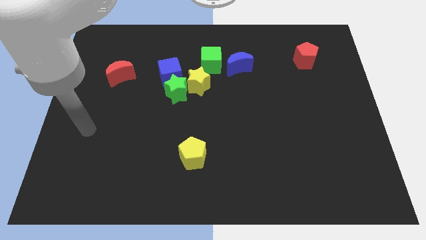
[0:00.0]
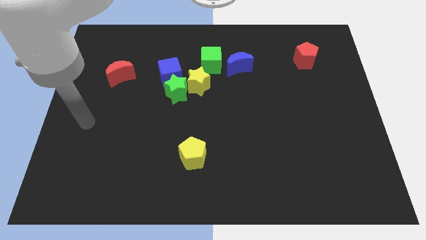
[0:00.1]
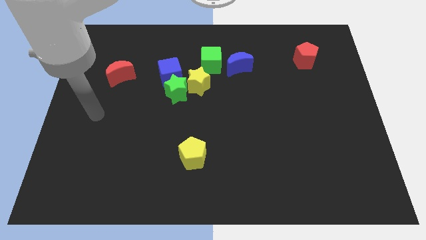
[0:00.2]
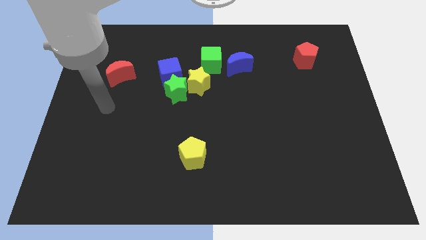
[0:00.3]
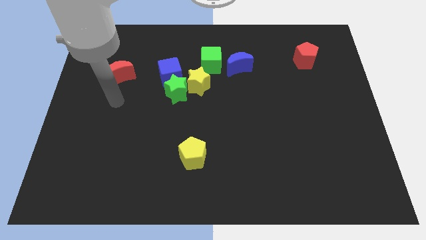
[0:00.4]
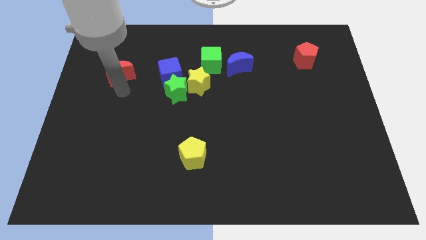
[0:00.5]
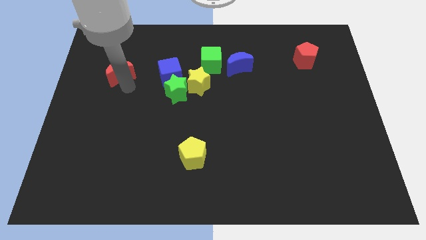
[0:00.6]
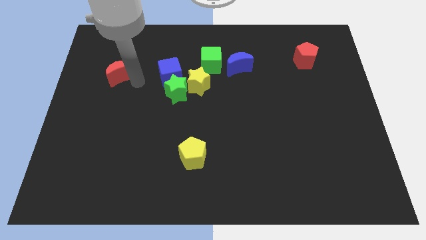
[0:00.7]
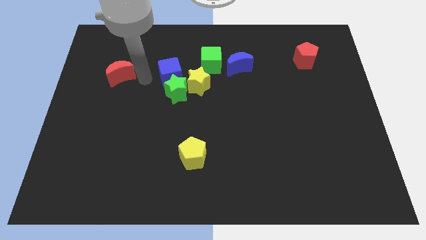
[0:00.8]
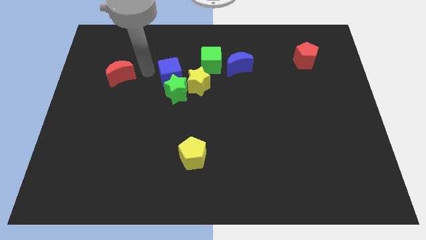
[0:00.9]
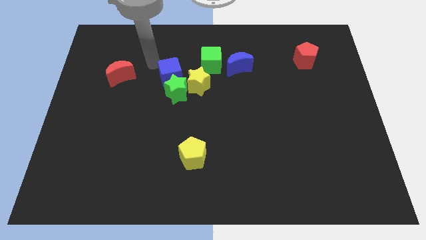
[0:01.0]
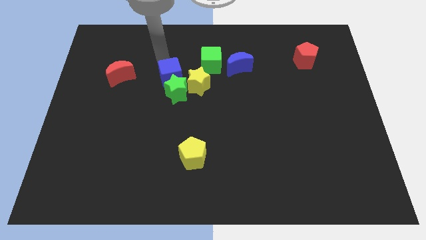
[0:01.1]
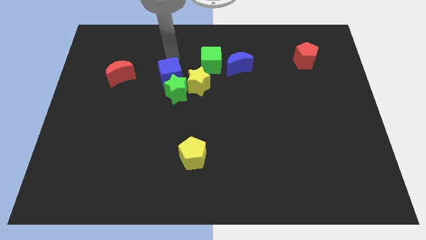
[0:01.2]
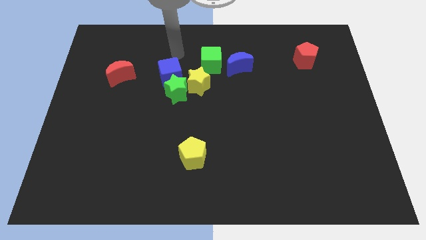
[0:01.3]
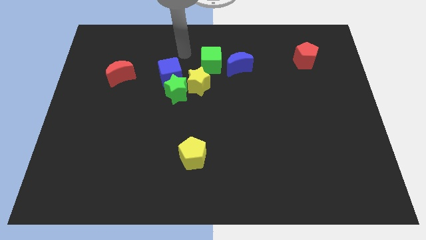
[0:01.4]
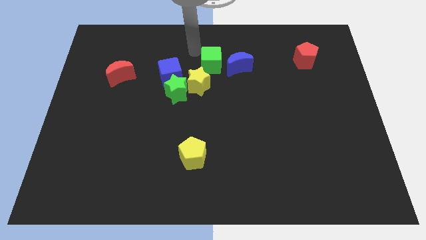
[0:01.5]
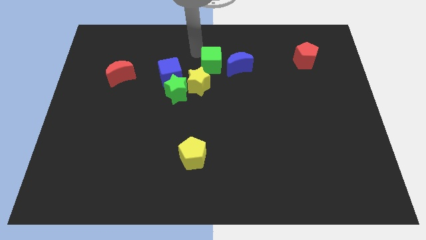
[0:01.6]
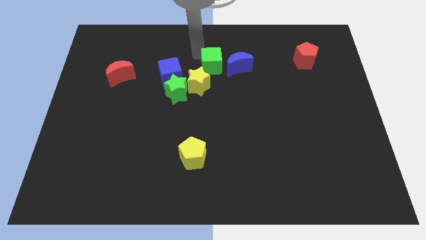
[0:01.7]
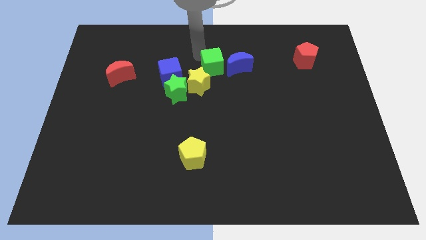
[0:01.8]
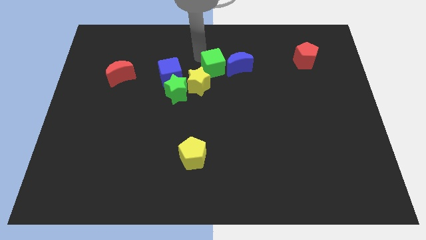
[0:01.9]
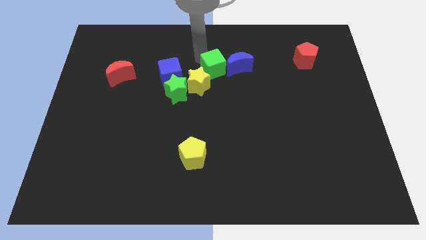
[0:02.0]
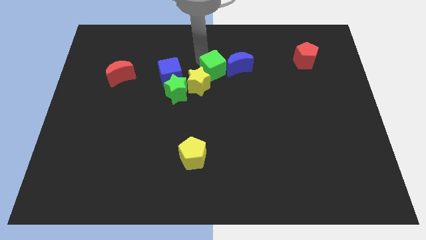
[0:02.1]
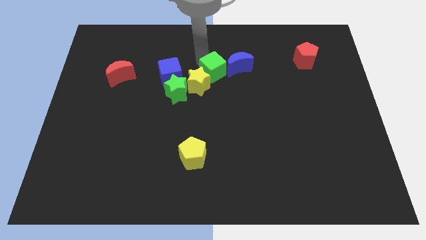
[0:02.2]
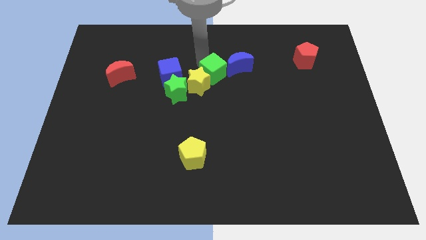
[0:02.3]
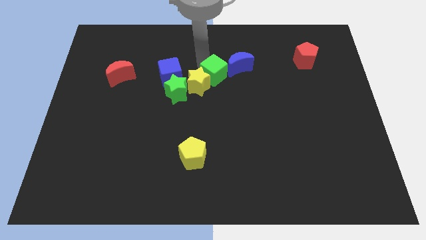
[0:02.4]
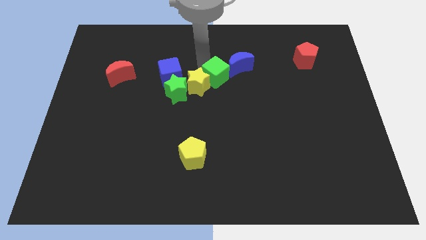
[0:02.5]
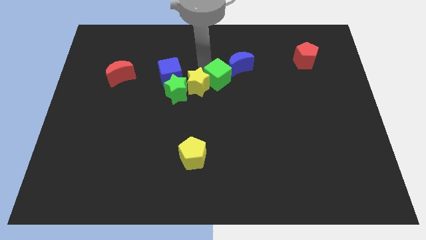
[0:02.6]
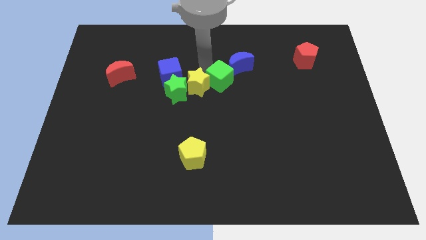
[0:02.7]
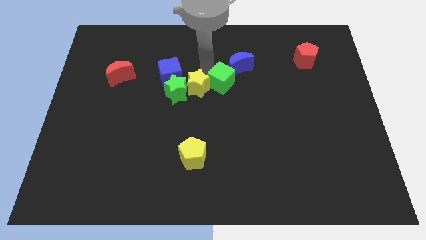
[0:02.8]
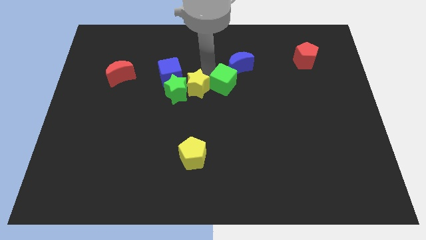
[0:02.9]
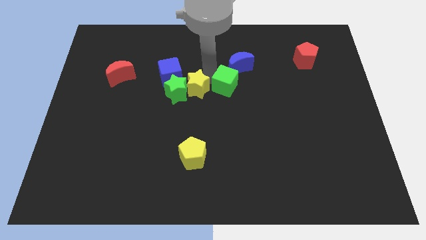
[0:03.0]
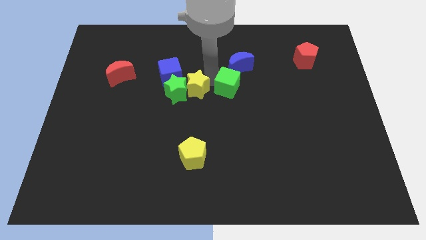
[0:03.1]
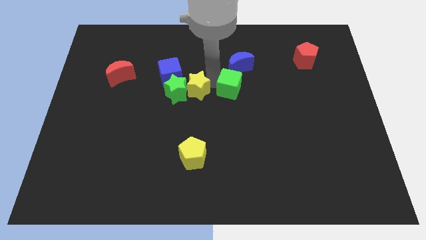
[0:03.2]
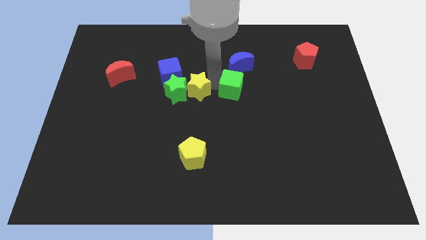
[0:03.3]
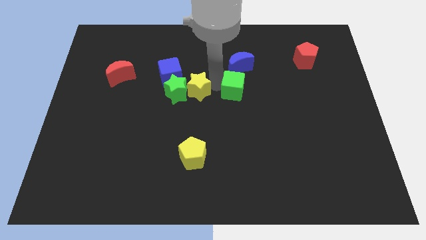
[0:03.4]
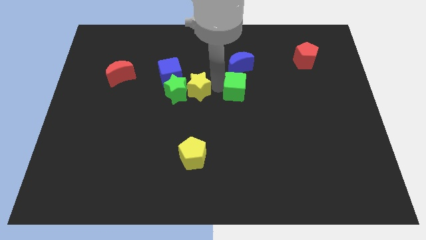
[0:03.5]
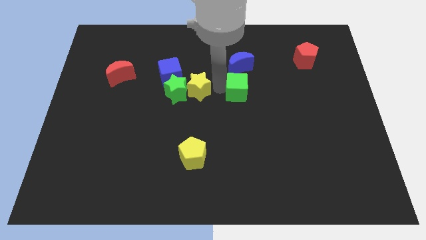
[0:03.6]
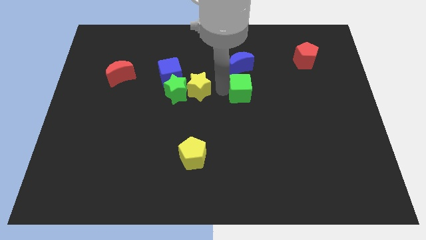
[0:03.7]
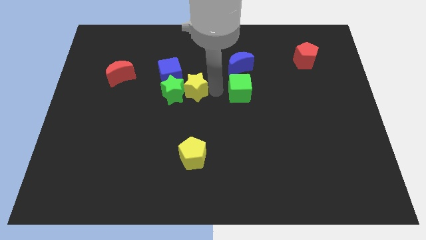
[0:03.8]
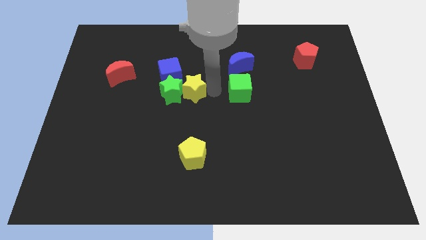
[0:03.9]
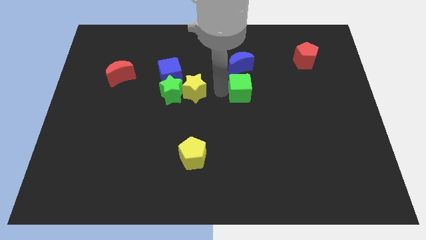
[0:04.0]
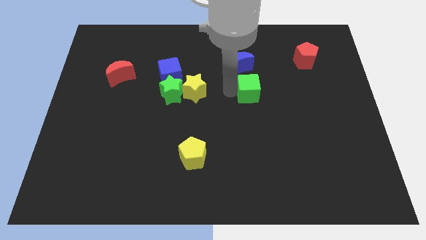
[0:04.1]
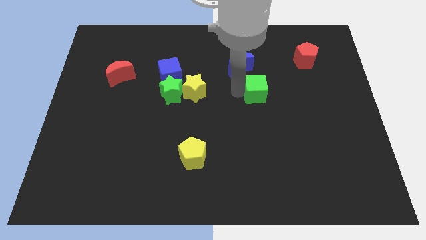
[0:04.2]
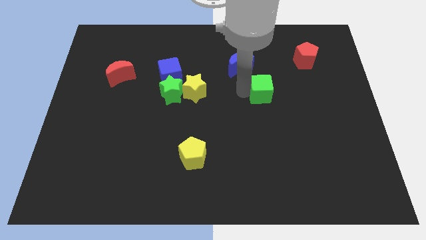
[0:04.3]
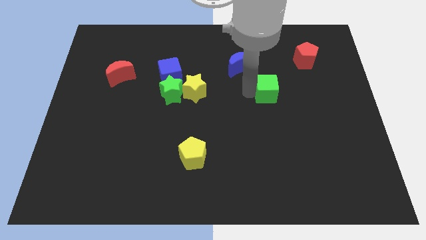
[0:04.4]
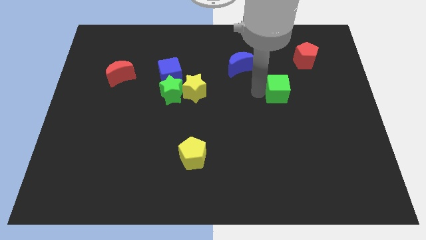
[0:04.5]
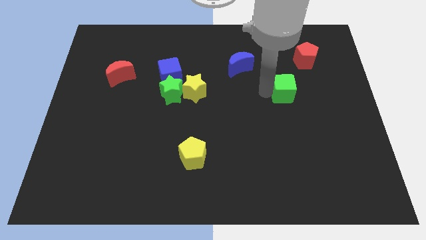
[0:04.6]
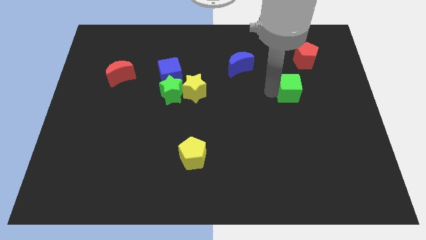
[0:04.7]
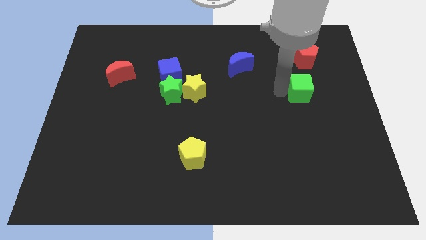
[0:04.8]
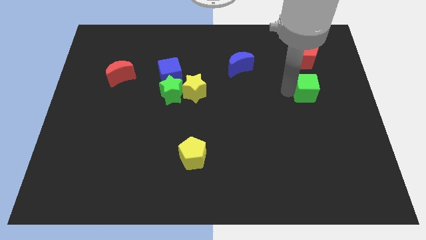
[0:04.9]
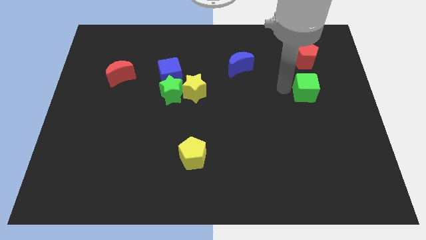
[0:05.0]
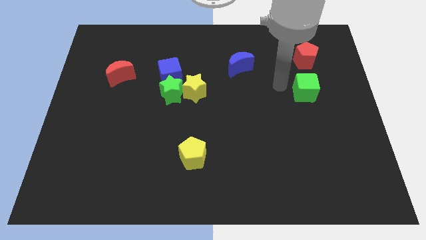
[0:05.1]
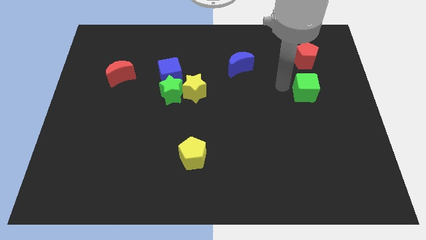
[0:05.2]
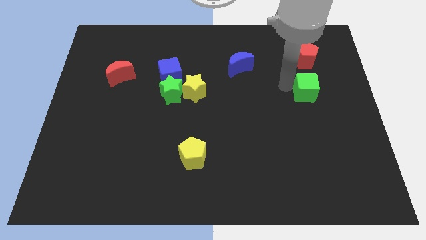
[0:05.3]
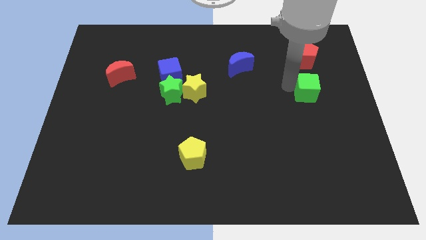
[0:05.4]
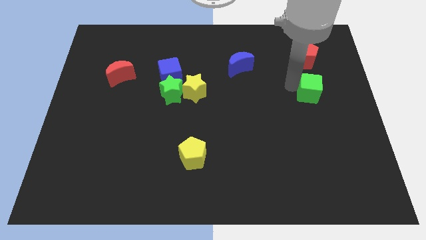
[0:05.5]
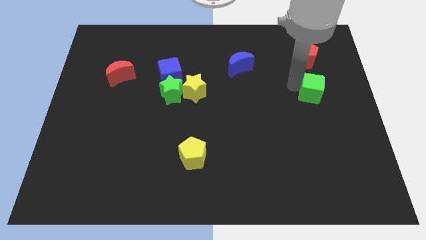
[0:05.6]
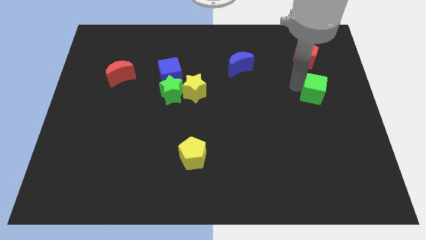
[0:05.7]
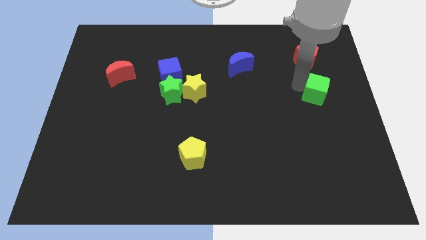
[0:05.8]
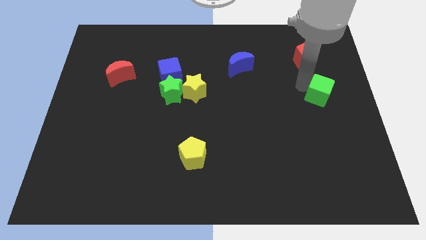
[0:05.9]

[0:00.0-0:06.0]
move the green cube to the right side

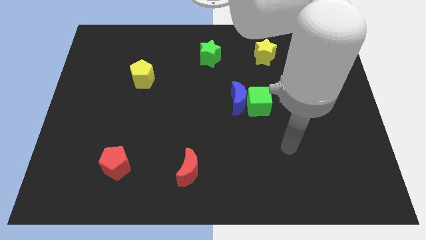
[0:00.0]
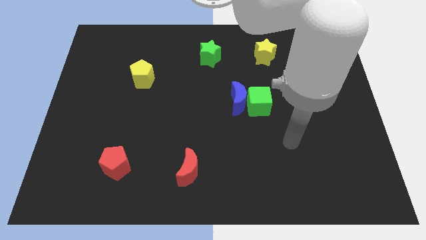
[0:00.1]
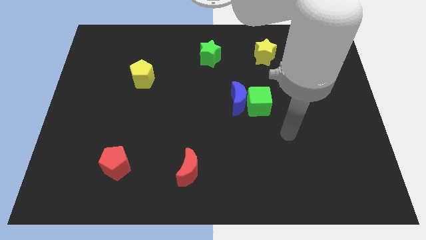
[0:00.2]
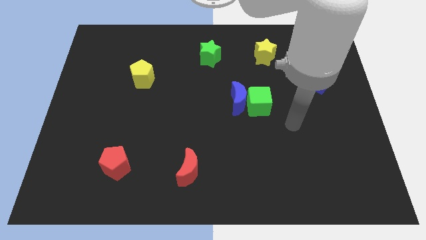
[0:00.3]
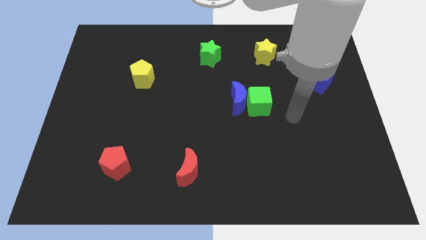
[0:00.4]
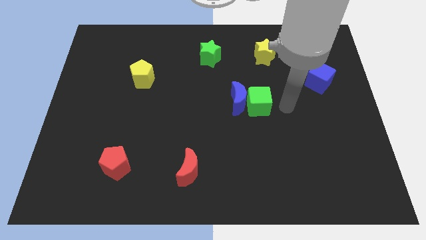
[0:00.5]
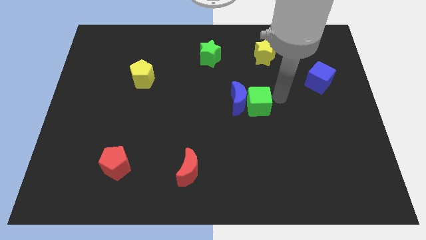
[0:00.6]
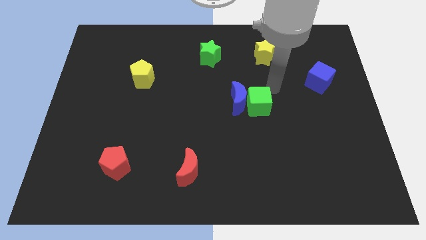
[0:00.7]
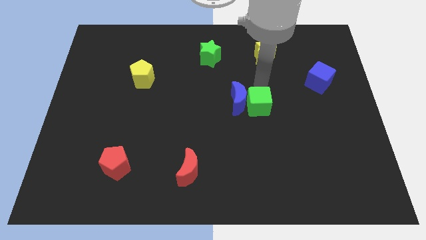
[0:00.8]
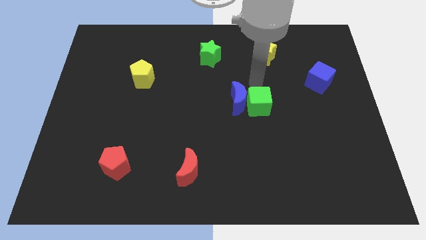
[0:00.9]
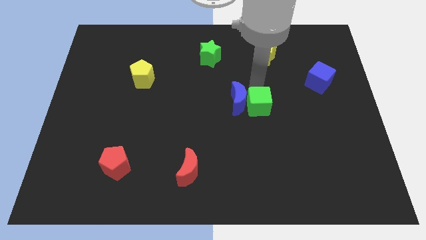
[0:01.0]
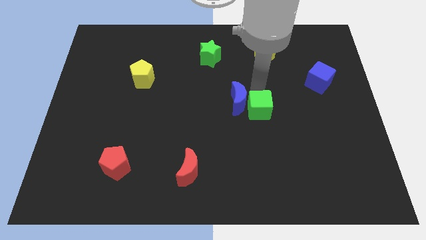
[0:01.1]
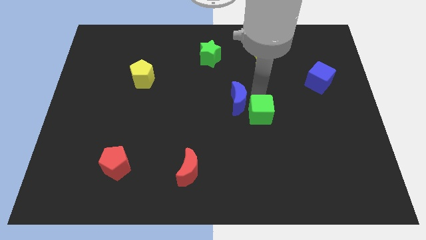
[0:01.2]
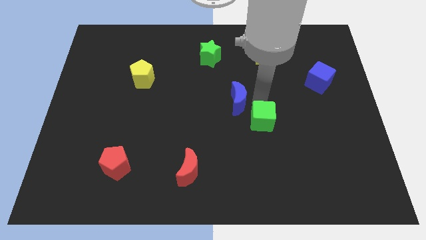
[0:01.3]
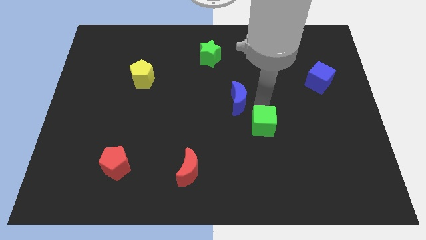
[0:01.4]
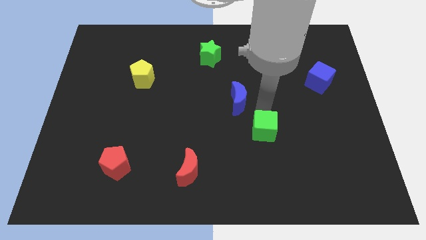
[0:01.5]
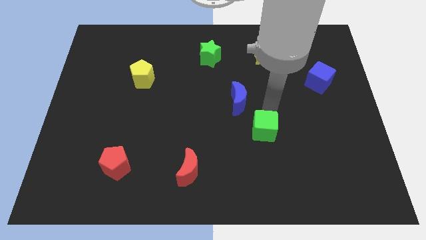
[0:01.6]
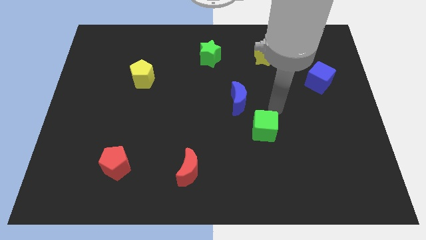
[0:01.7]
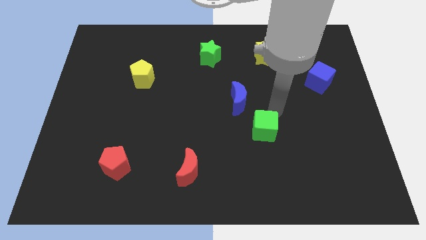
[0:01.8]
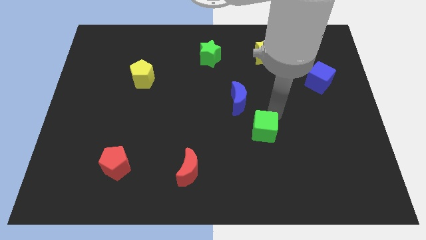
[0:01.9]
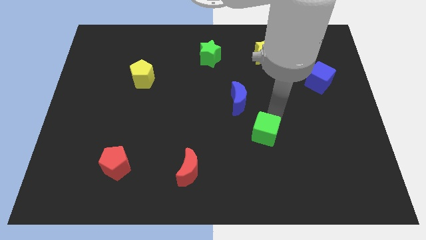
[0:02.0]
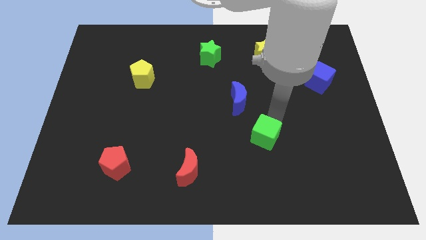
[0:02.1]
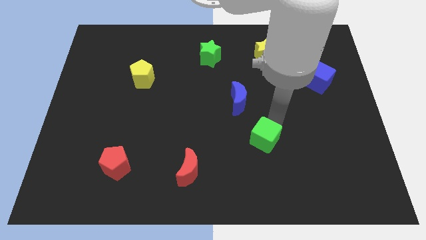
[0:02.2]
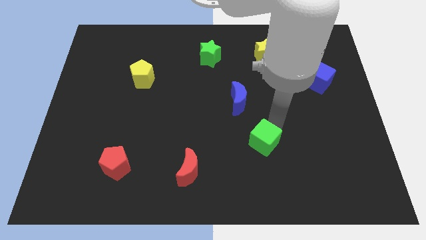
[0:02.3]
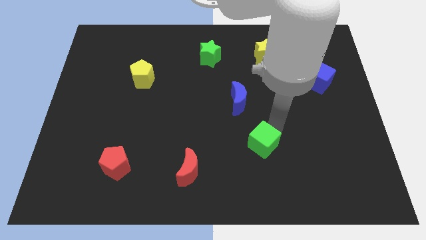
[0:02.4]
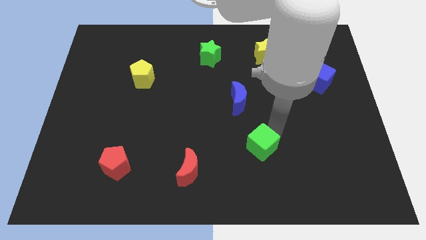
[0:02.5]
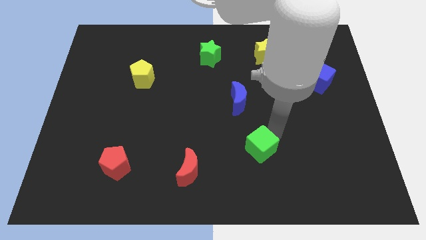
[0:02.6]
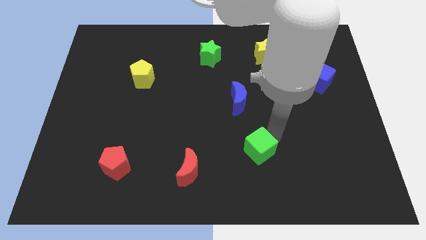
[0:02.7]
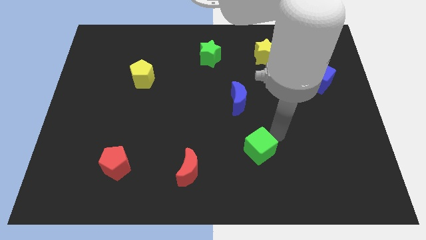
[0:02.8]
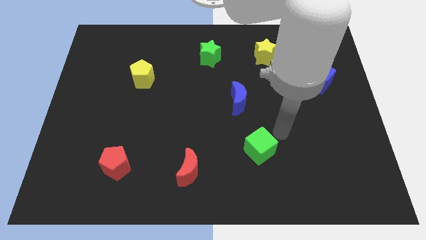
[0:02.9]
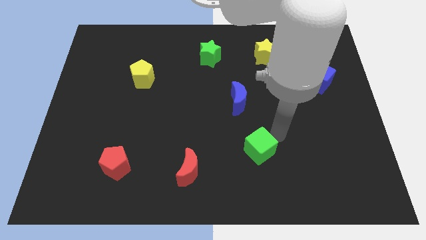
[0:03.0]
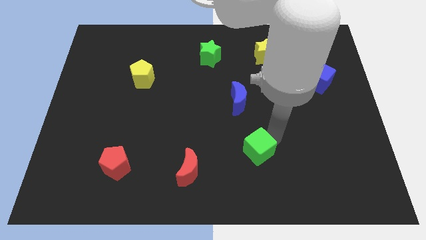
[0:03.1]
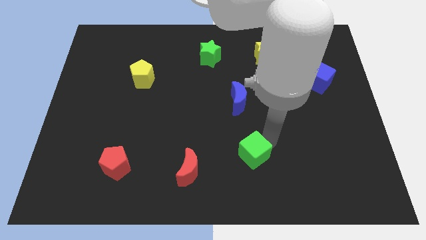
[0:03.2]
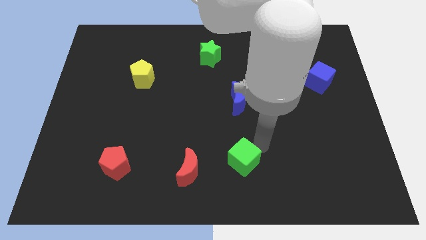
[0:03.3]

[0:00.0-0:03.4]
move the green cube to the bottom
